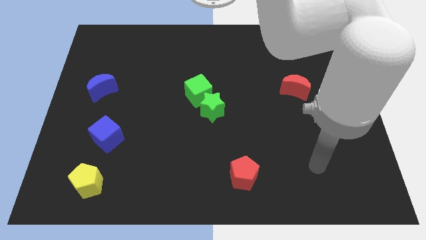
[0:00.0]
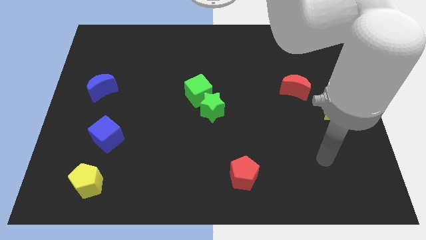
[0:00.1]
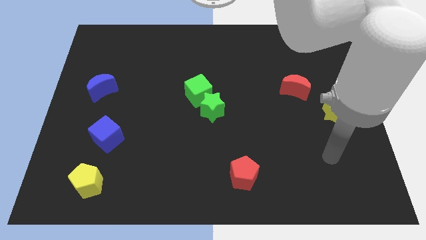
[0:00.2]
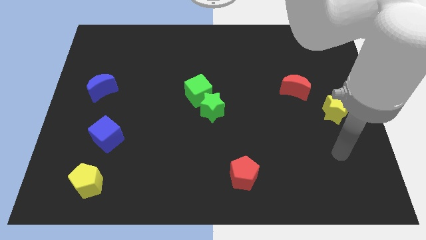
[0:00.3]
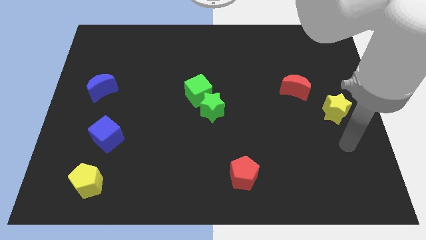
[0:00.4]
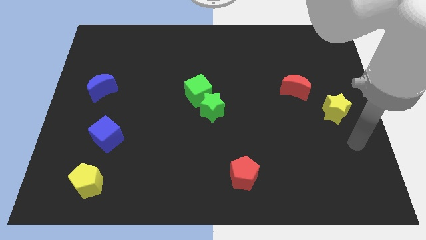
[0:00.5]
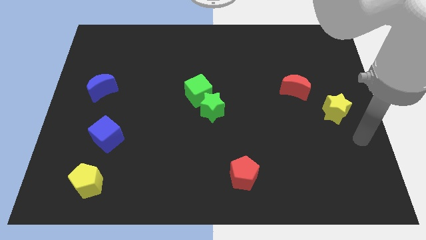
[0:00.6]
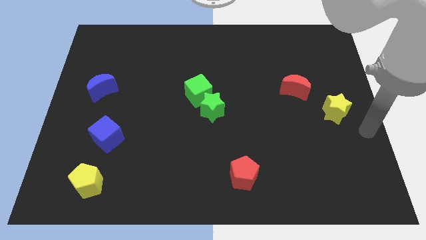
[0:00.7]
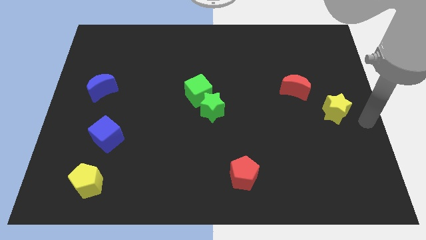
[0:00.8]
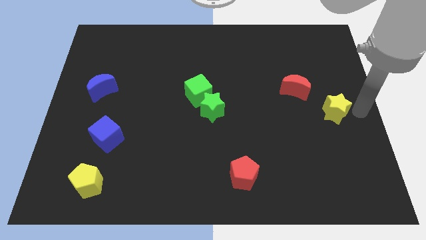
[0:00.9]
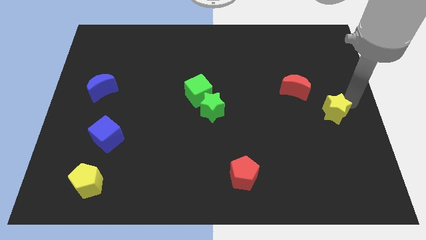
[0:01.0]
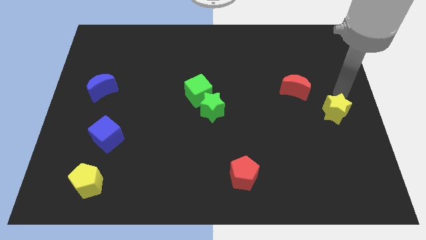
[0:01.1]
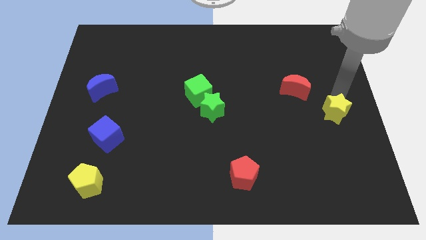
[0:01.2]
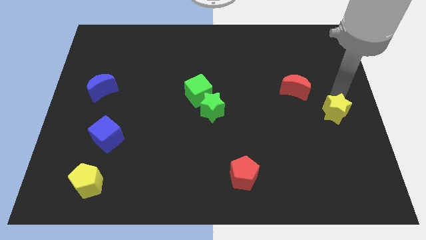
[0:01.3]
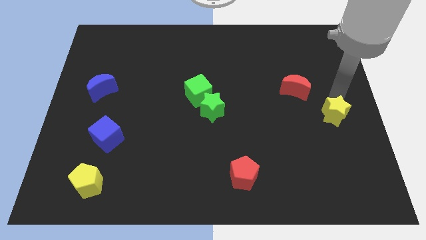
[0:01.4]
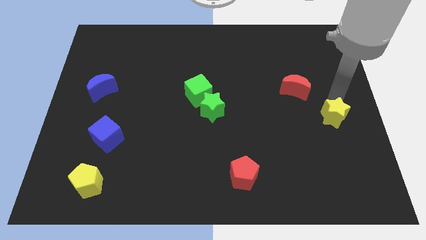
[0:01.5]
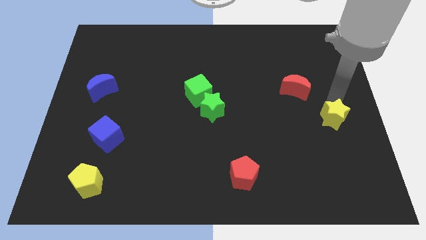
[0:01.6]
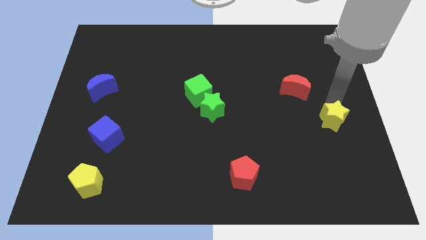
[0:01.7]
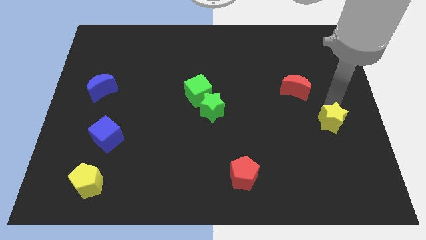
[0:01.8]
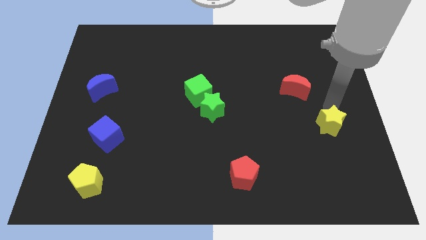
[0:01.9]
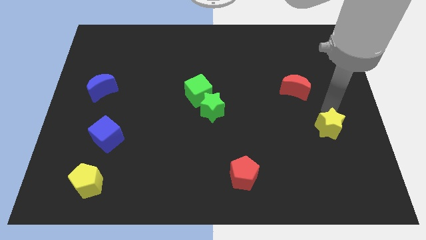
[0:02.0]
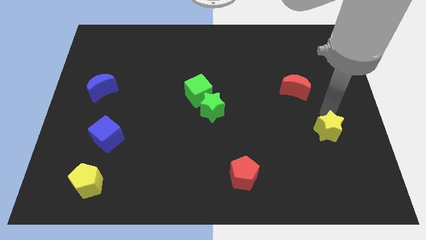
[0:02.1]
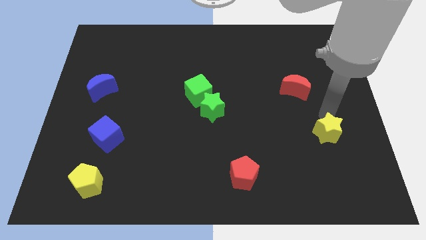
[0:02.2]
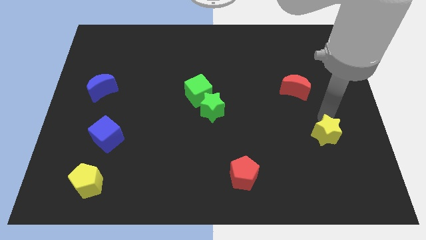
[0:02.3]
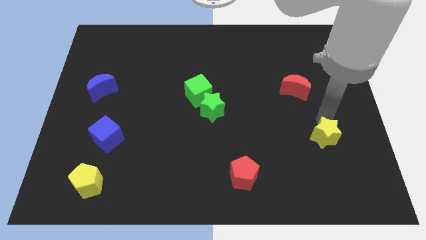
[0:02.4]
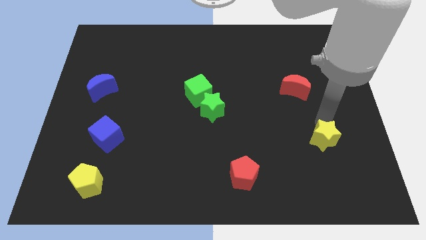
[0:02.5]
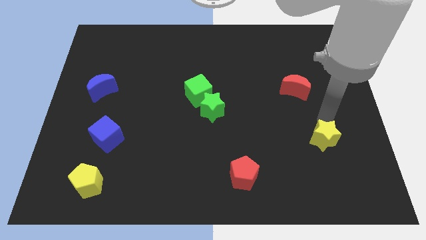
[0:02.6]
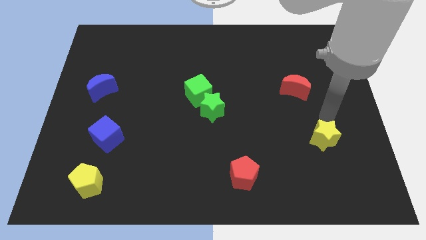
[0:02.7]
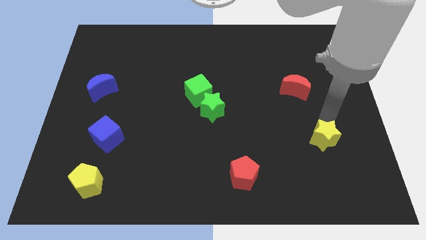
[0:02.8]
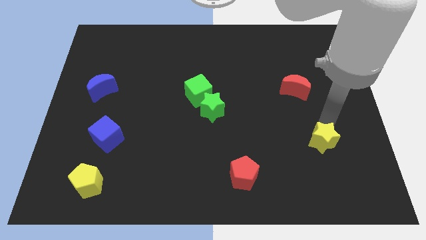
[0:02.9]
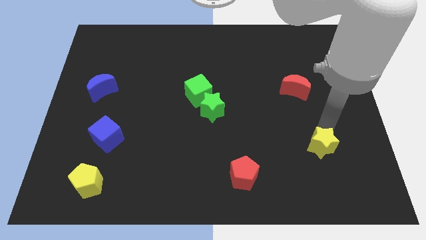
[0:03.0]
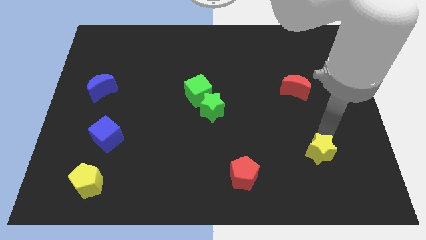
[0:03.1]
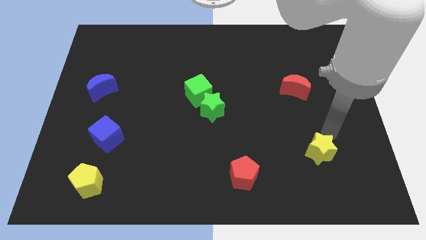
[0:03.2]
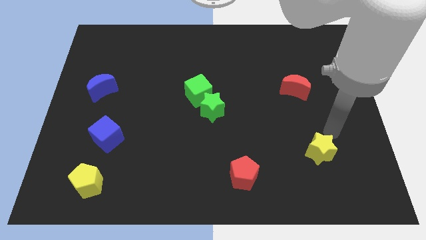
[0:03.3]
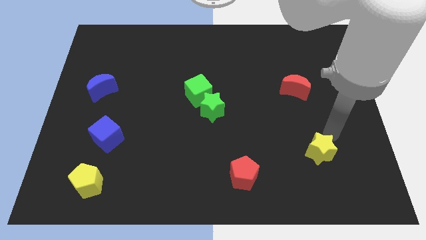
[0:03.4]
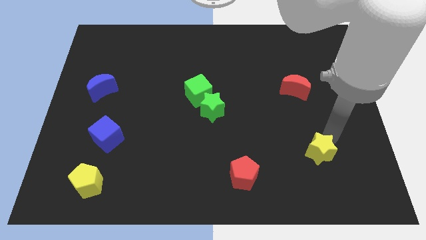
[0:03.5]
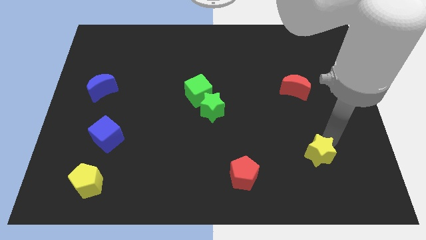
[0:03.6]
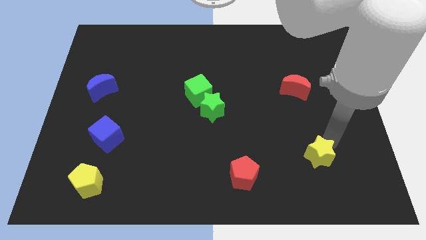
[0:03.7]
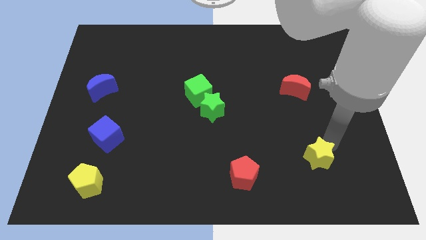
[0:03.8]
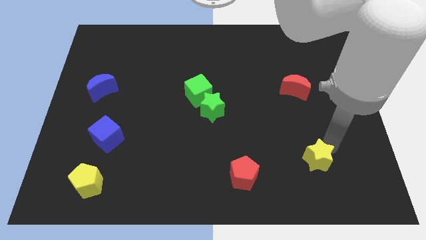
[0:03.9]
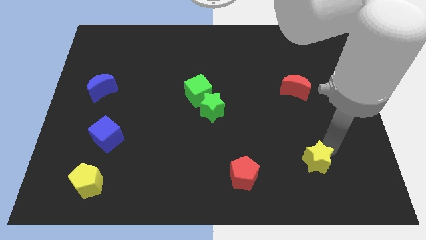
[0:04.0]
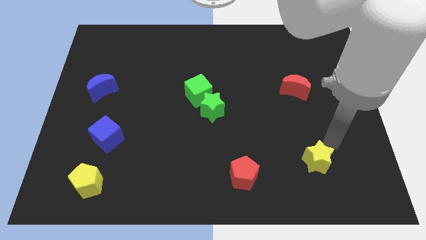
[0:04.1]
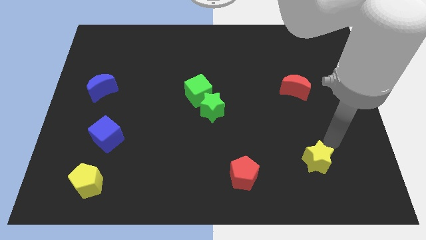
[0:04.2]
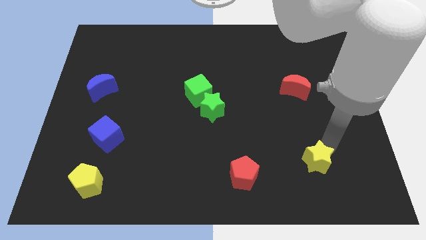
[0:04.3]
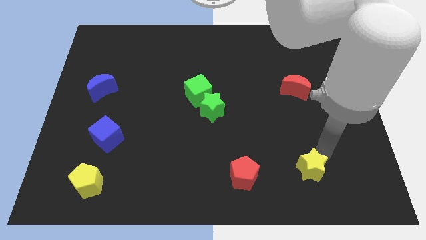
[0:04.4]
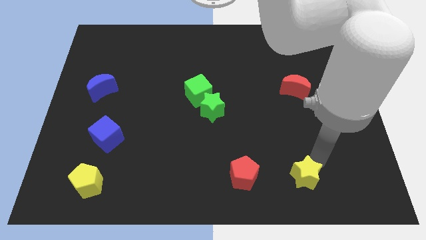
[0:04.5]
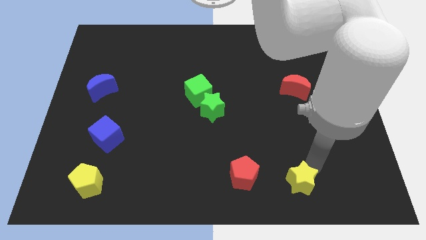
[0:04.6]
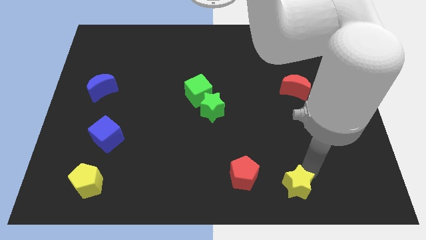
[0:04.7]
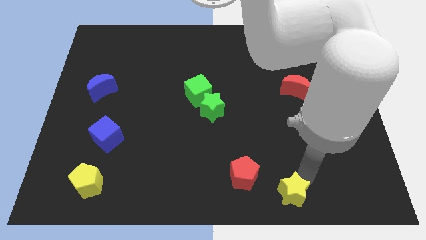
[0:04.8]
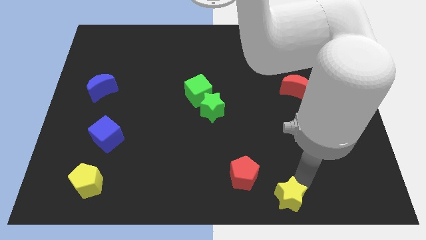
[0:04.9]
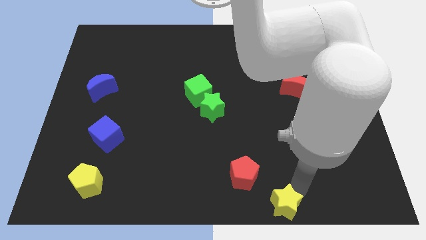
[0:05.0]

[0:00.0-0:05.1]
move the yellow star to the bottom side

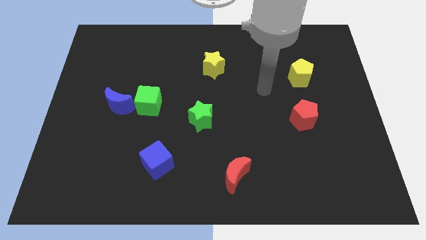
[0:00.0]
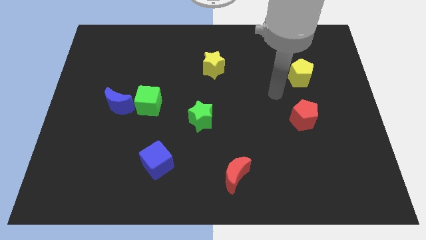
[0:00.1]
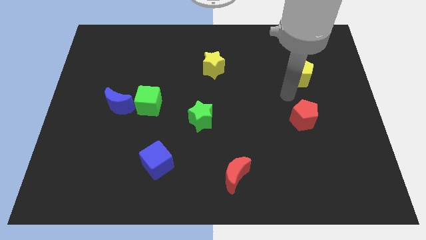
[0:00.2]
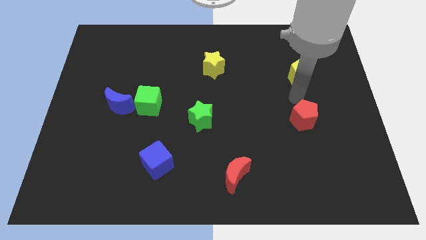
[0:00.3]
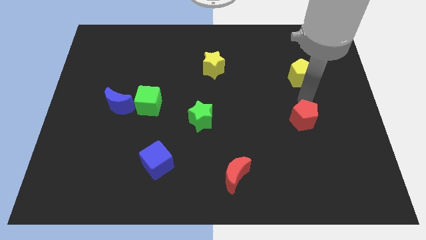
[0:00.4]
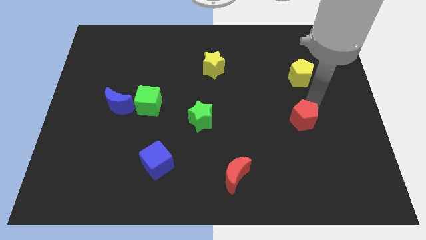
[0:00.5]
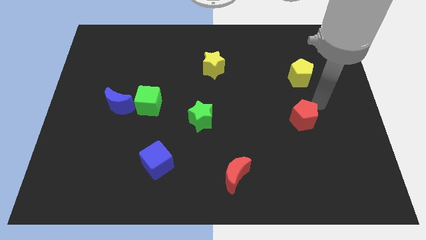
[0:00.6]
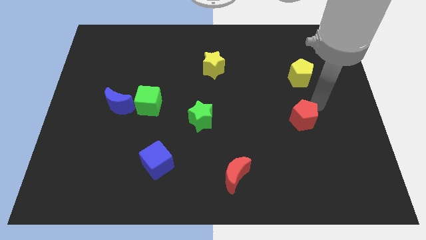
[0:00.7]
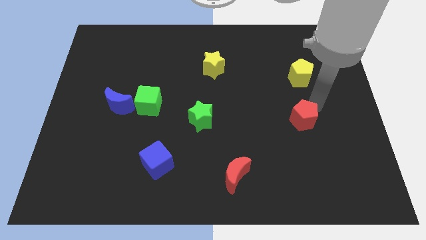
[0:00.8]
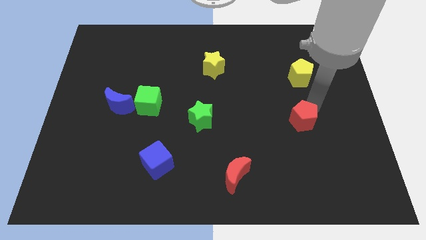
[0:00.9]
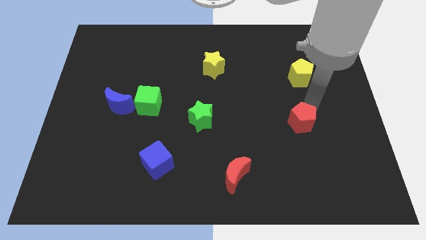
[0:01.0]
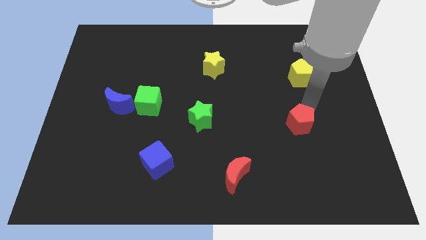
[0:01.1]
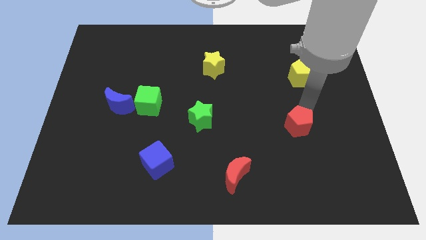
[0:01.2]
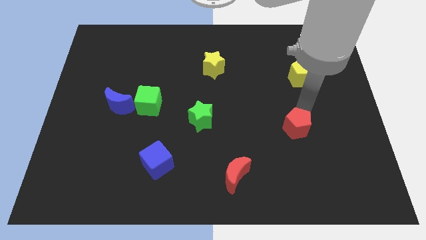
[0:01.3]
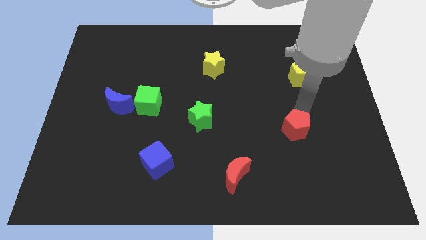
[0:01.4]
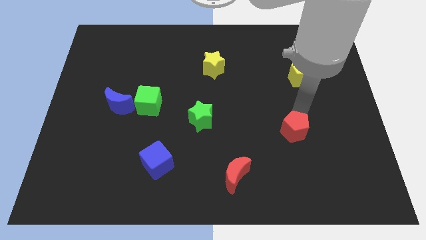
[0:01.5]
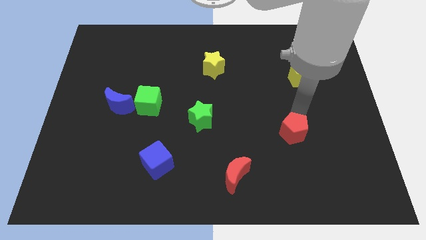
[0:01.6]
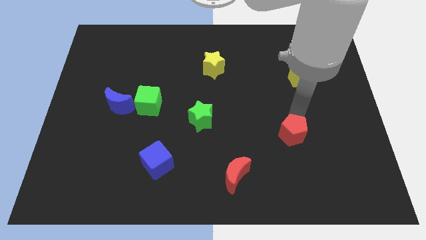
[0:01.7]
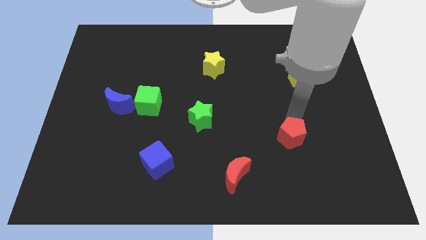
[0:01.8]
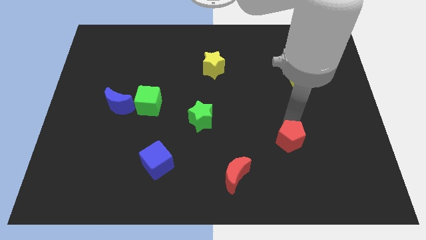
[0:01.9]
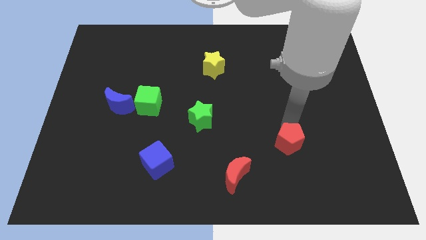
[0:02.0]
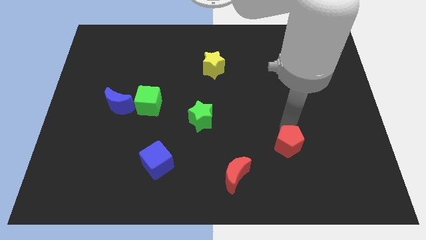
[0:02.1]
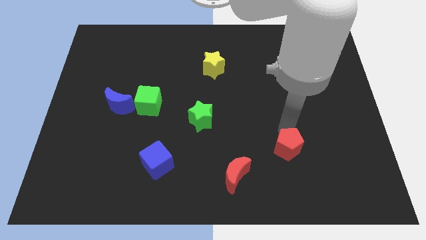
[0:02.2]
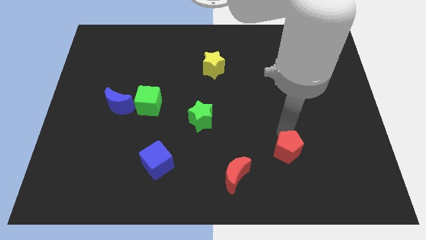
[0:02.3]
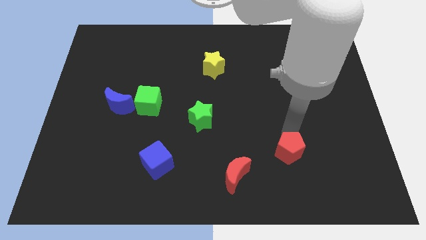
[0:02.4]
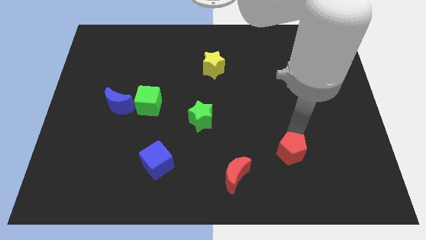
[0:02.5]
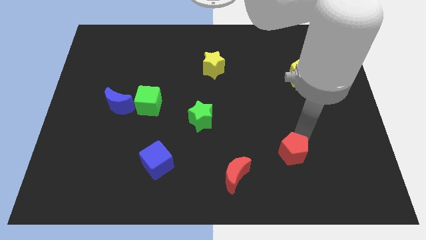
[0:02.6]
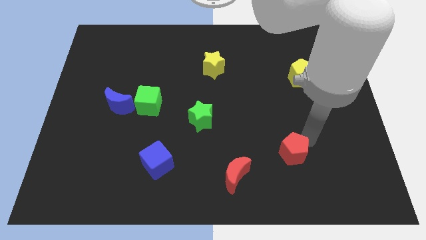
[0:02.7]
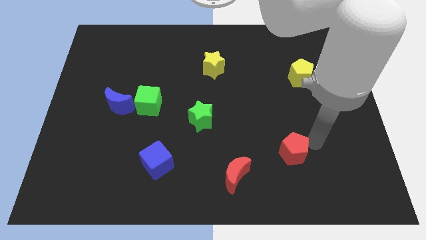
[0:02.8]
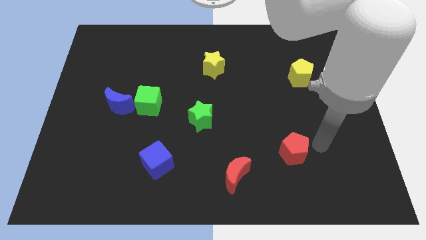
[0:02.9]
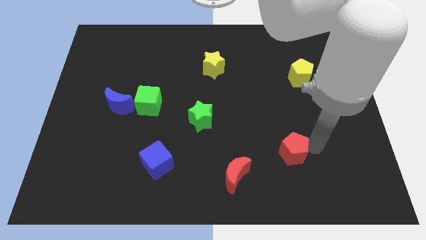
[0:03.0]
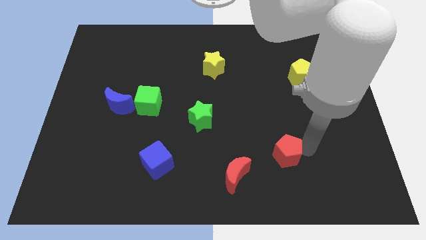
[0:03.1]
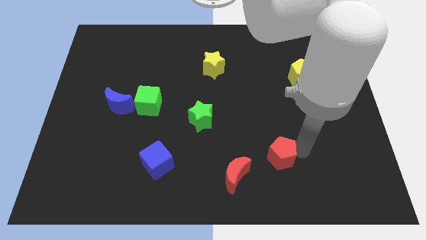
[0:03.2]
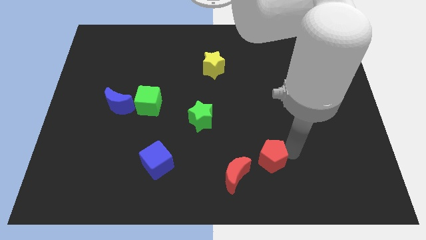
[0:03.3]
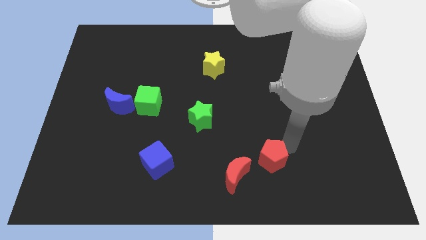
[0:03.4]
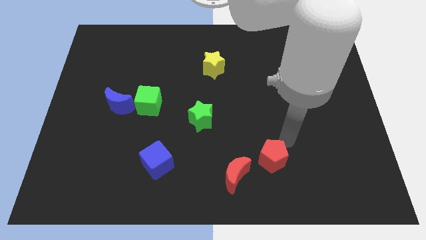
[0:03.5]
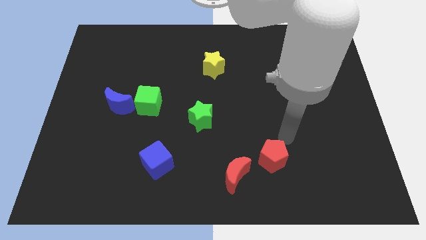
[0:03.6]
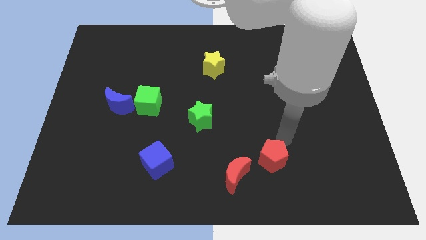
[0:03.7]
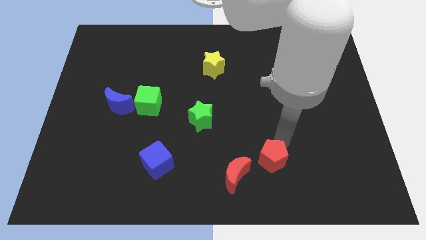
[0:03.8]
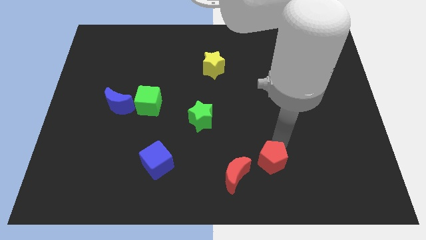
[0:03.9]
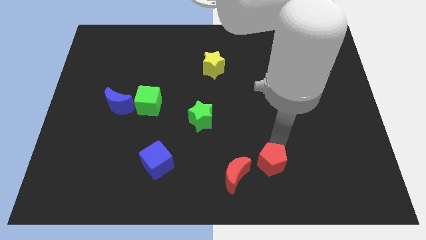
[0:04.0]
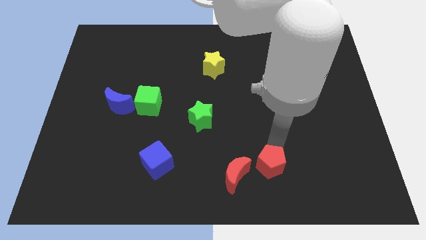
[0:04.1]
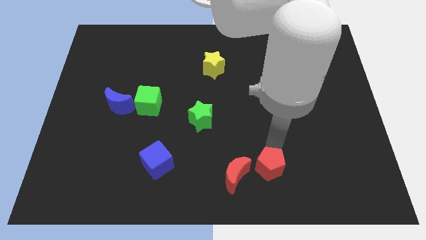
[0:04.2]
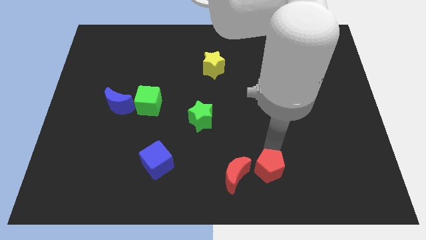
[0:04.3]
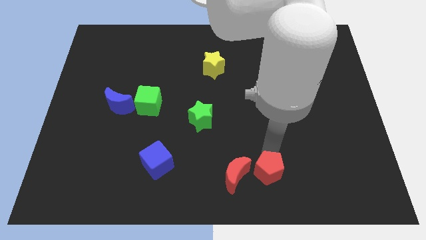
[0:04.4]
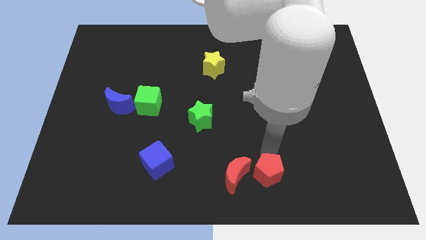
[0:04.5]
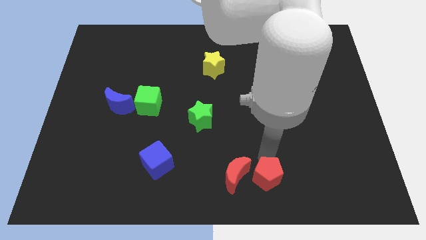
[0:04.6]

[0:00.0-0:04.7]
move the red pentagon to the bottom side
